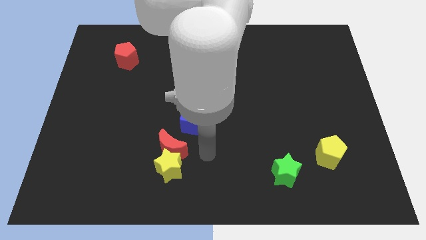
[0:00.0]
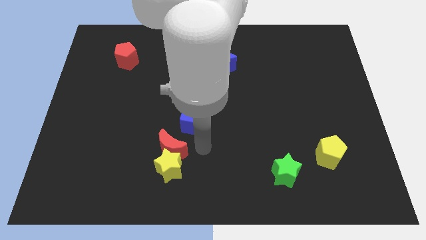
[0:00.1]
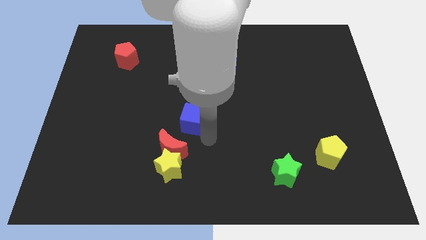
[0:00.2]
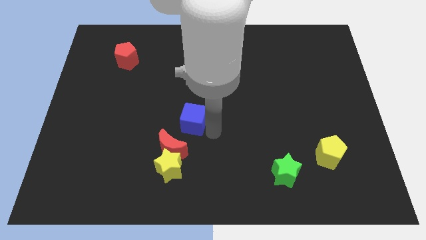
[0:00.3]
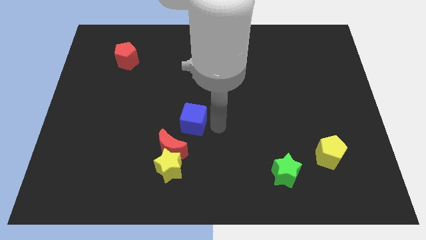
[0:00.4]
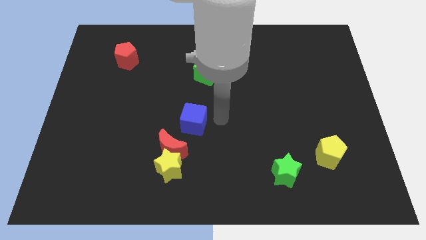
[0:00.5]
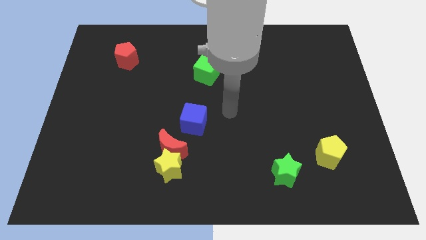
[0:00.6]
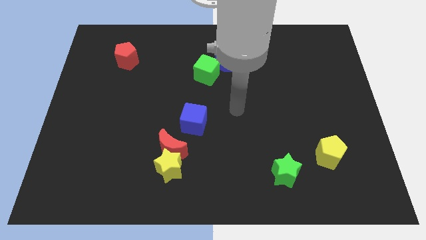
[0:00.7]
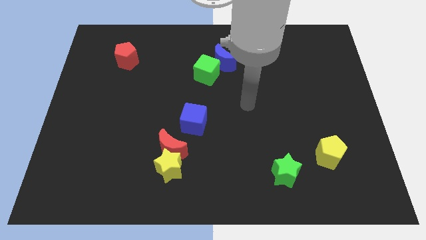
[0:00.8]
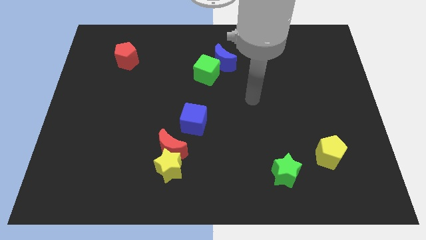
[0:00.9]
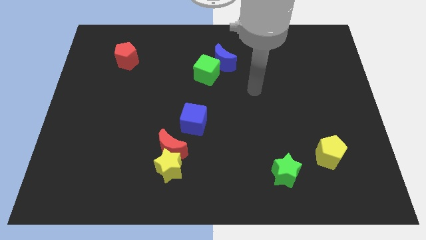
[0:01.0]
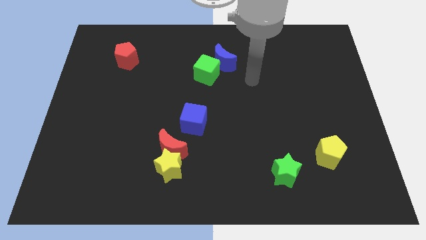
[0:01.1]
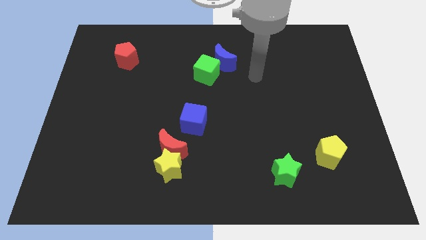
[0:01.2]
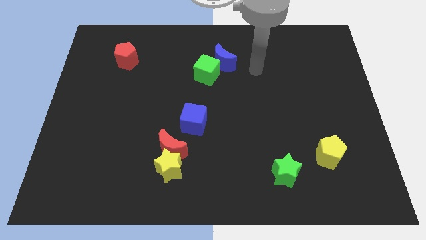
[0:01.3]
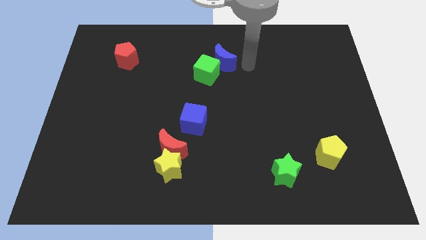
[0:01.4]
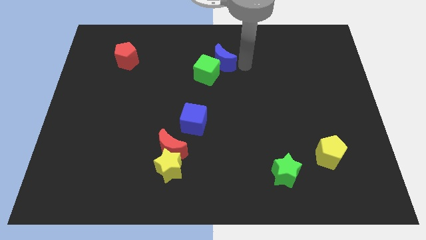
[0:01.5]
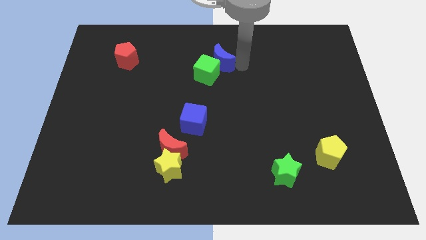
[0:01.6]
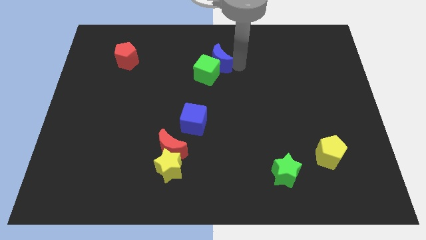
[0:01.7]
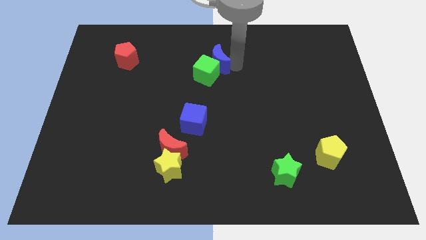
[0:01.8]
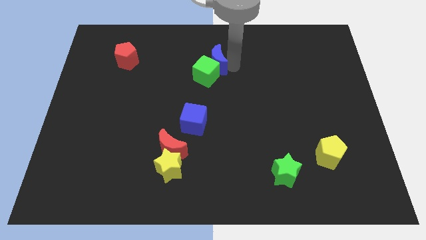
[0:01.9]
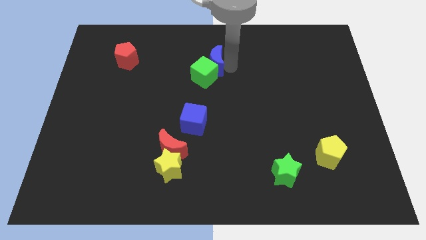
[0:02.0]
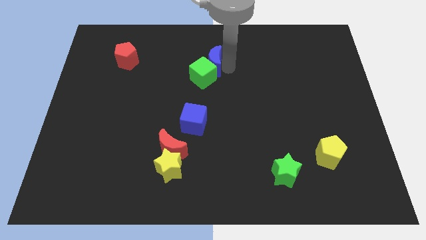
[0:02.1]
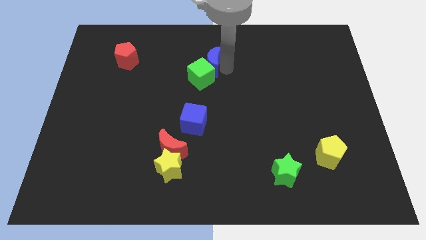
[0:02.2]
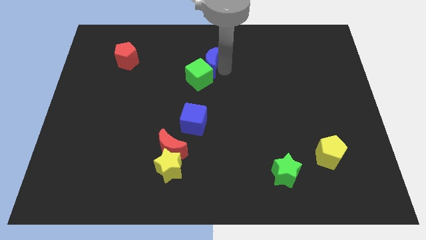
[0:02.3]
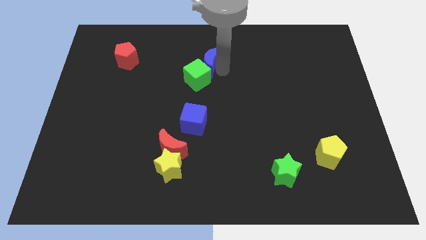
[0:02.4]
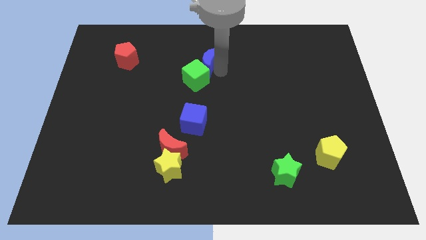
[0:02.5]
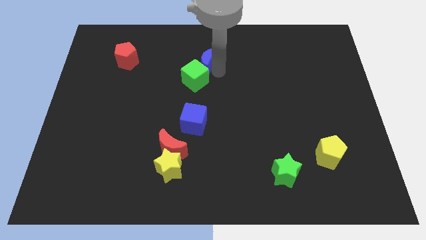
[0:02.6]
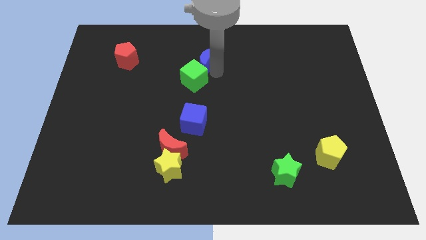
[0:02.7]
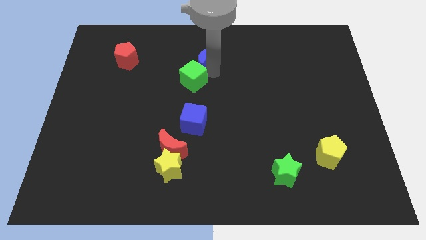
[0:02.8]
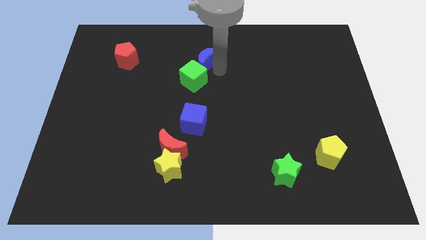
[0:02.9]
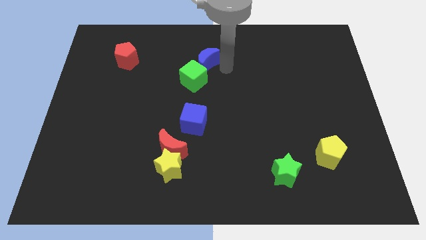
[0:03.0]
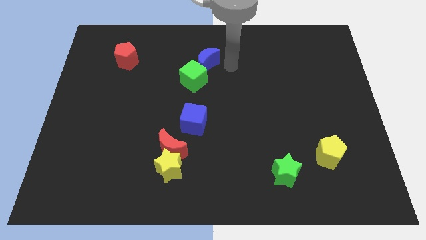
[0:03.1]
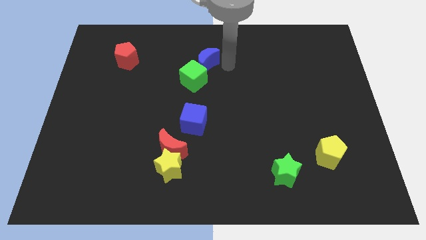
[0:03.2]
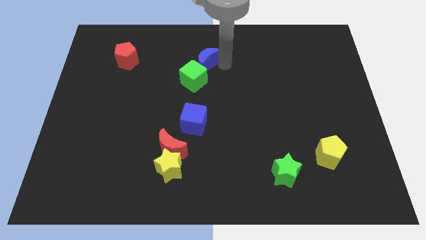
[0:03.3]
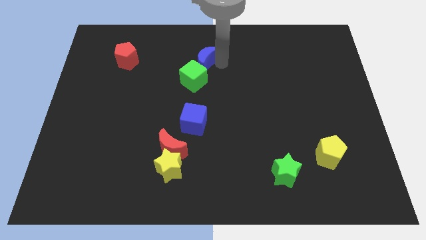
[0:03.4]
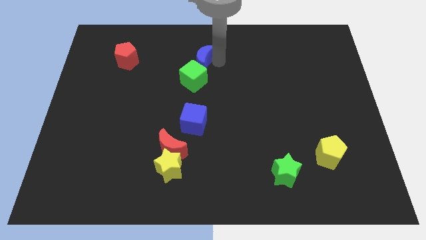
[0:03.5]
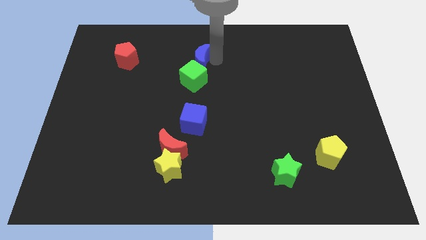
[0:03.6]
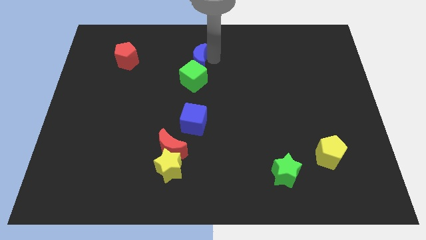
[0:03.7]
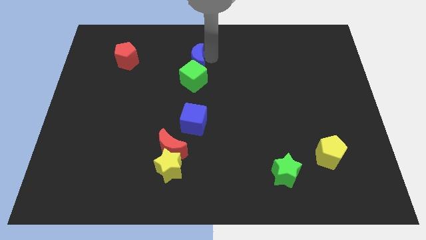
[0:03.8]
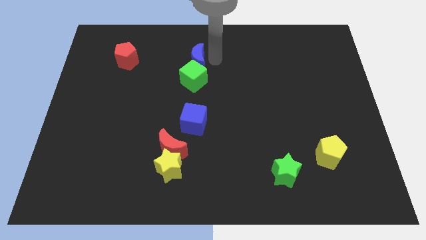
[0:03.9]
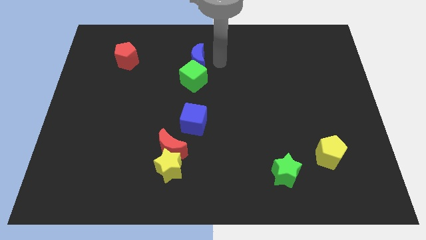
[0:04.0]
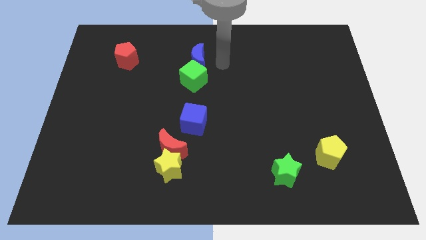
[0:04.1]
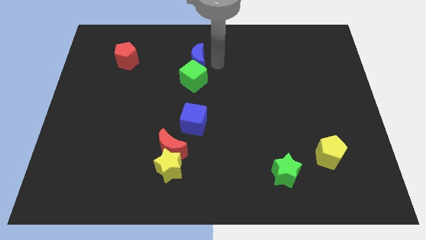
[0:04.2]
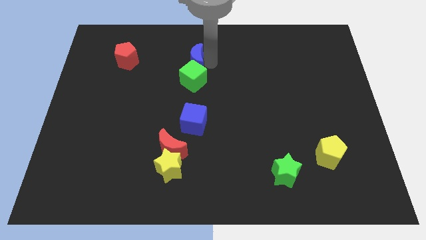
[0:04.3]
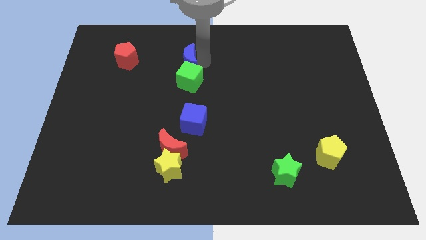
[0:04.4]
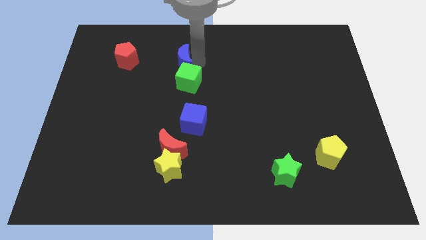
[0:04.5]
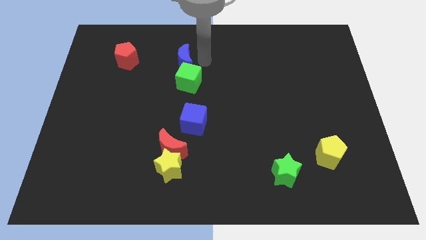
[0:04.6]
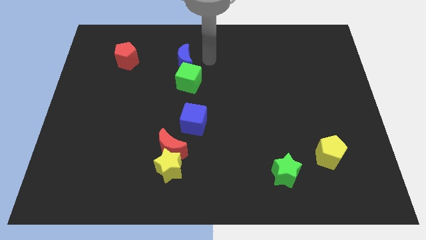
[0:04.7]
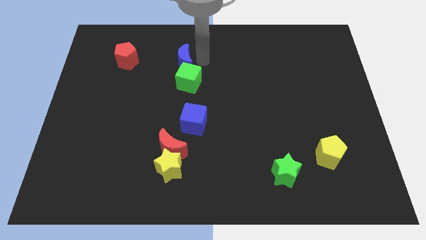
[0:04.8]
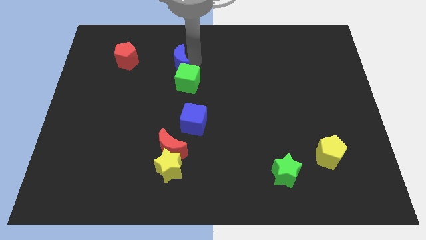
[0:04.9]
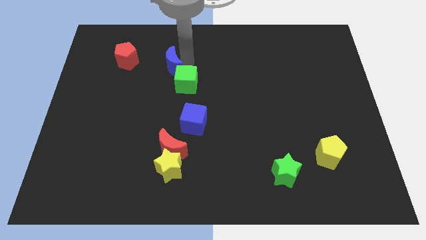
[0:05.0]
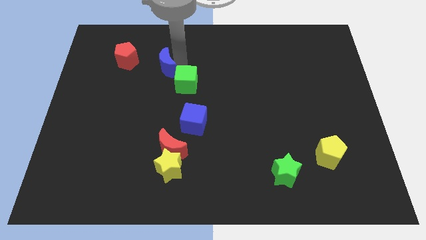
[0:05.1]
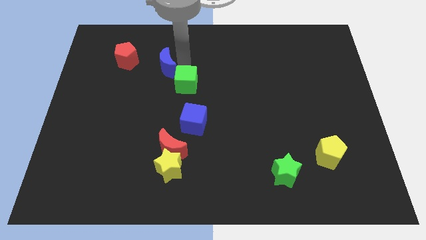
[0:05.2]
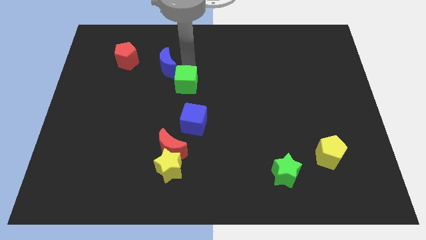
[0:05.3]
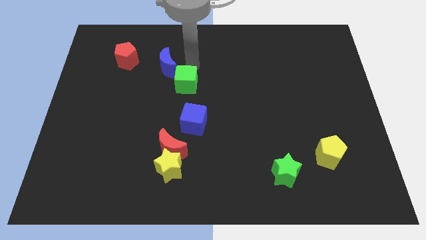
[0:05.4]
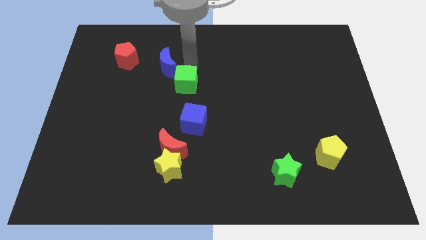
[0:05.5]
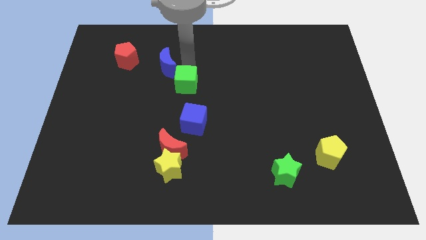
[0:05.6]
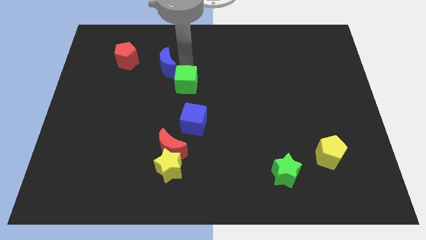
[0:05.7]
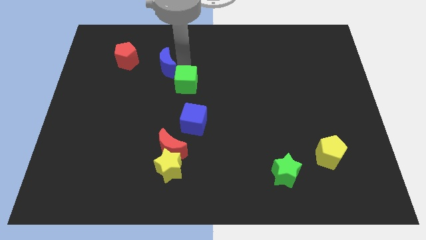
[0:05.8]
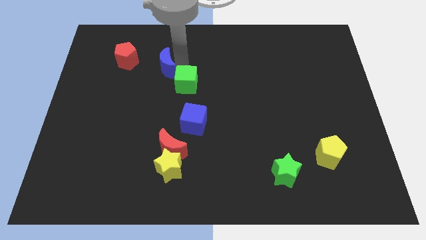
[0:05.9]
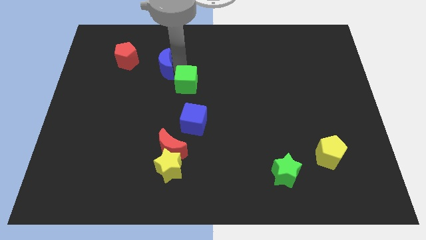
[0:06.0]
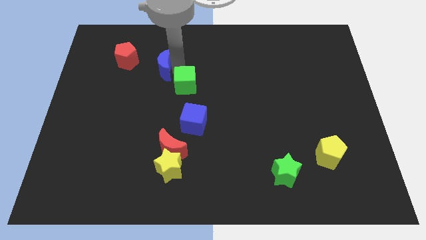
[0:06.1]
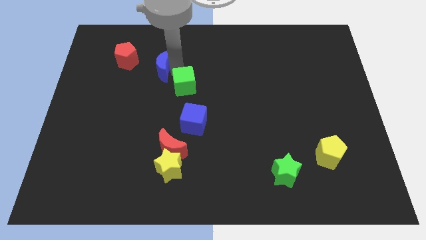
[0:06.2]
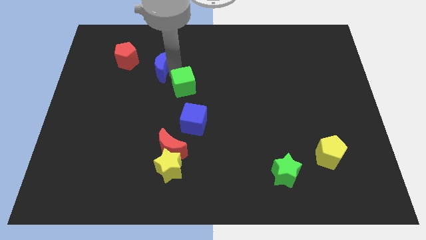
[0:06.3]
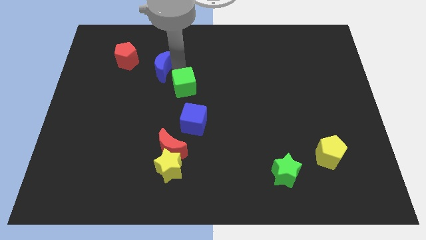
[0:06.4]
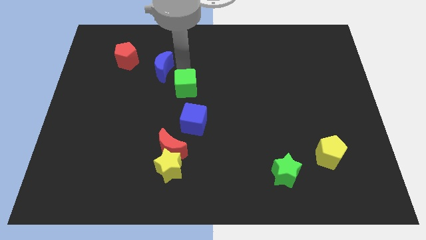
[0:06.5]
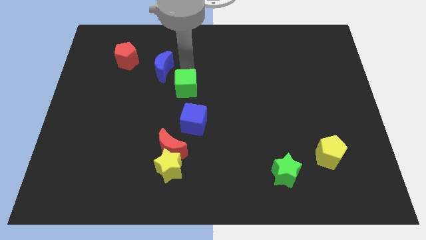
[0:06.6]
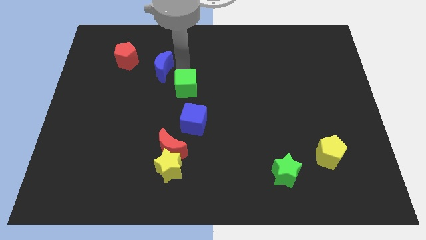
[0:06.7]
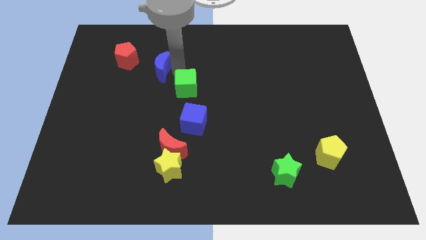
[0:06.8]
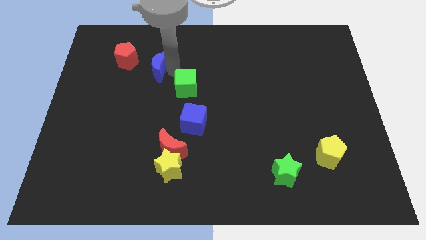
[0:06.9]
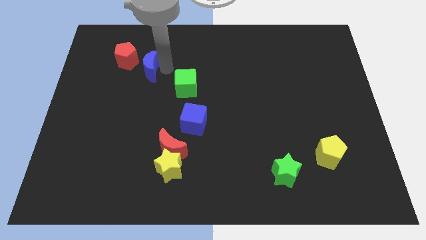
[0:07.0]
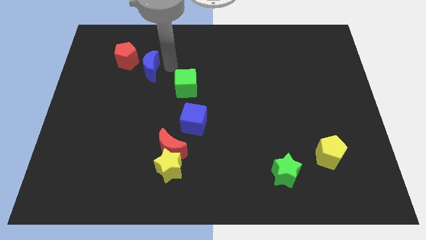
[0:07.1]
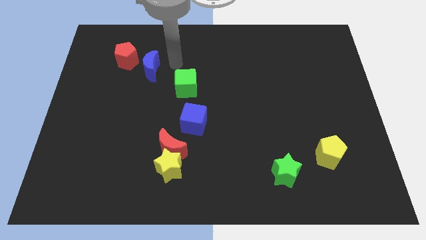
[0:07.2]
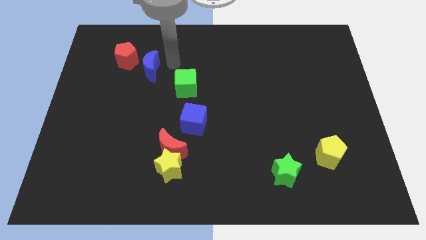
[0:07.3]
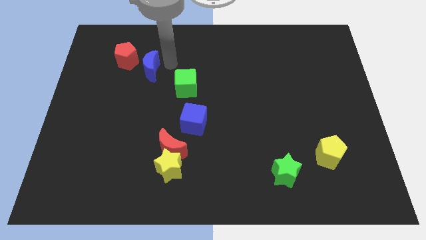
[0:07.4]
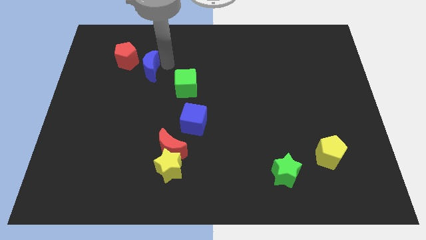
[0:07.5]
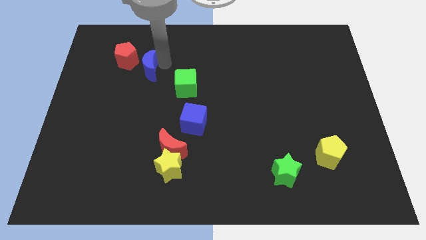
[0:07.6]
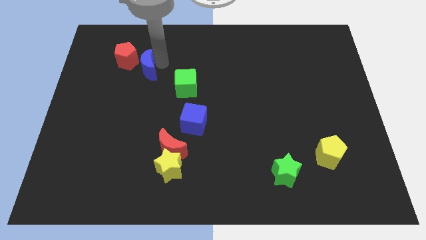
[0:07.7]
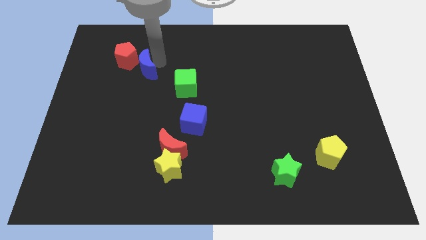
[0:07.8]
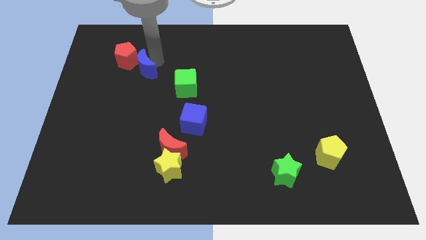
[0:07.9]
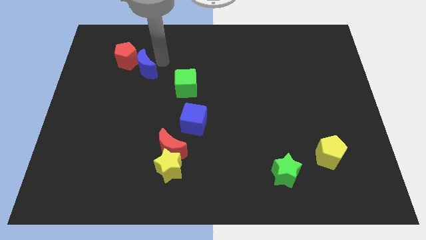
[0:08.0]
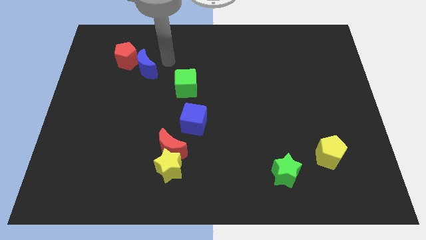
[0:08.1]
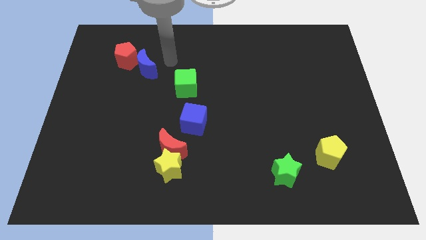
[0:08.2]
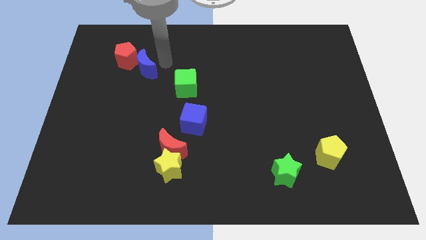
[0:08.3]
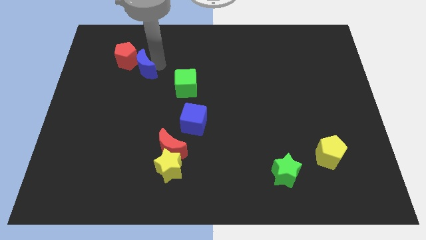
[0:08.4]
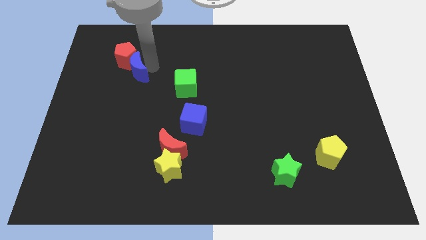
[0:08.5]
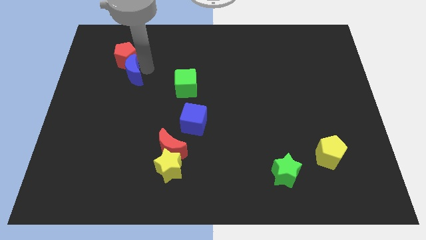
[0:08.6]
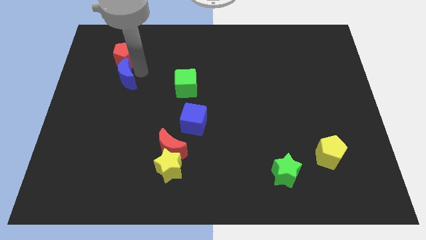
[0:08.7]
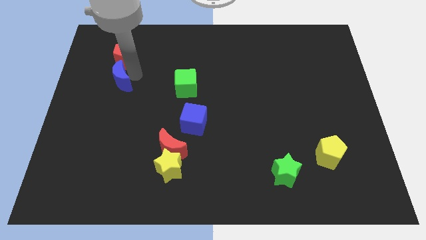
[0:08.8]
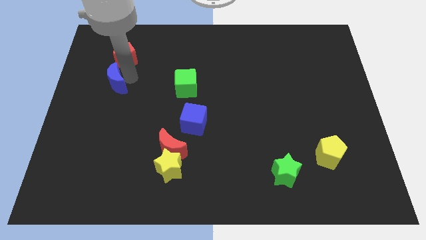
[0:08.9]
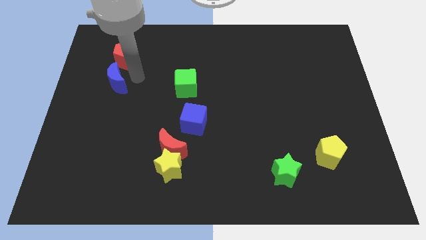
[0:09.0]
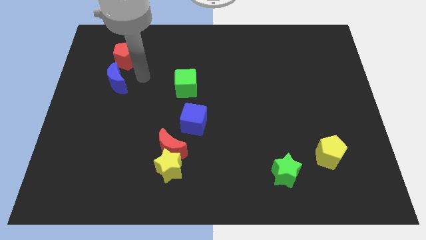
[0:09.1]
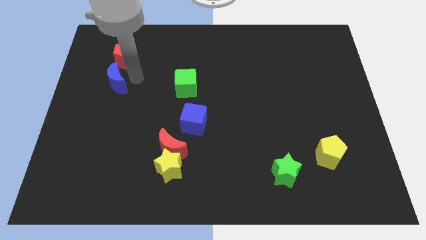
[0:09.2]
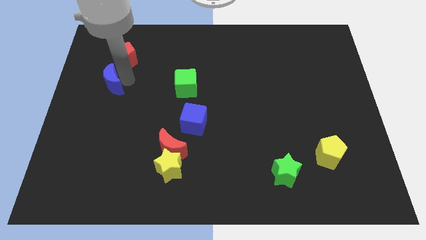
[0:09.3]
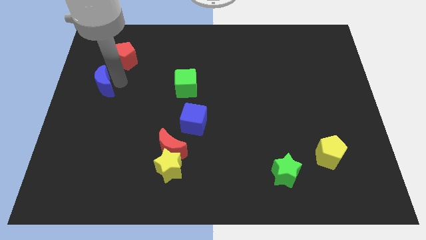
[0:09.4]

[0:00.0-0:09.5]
move the blue moon to the left side of the board
